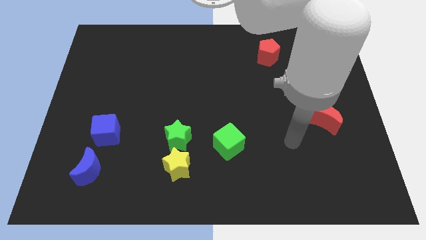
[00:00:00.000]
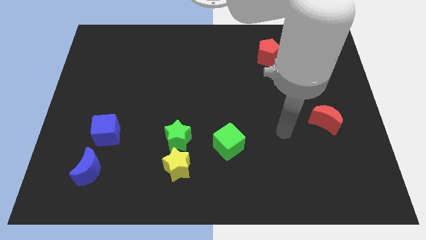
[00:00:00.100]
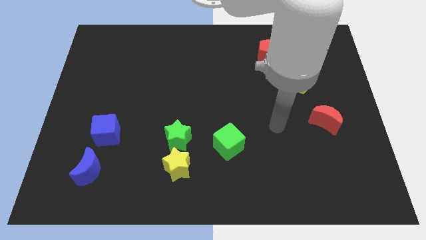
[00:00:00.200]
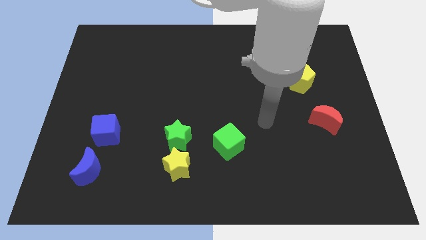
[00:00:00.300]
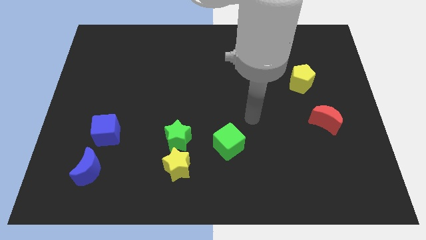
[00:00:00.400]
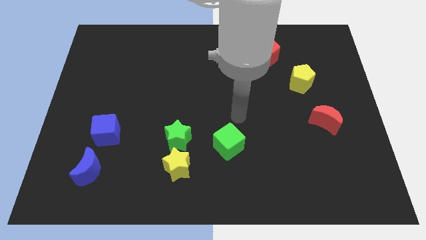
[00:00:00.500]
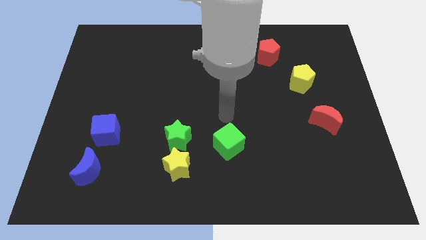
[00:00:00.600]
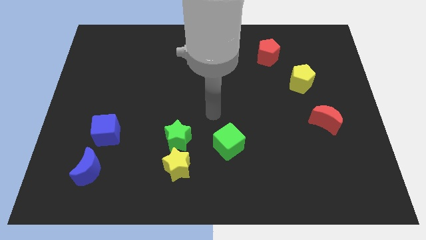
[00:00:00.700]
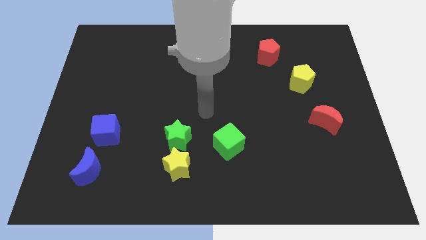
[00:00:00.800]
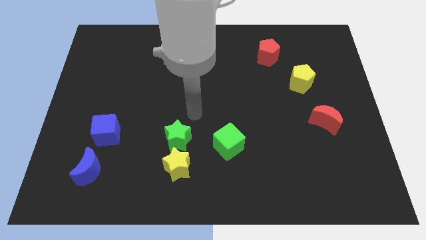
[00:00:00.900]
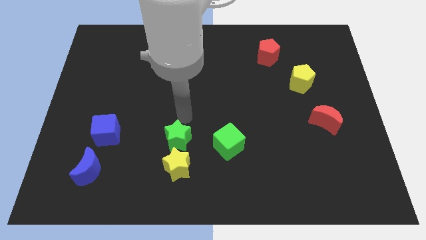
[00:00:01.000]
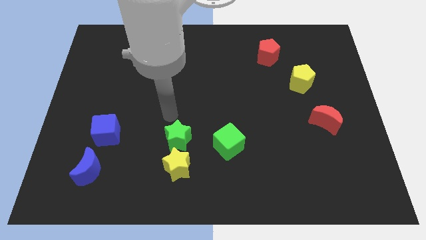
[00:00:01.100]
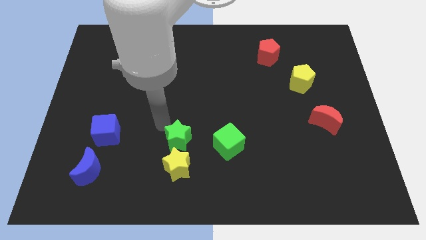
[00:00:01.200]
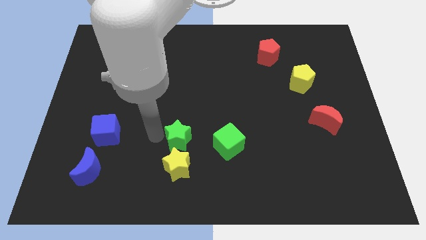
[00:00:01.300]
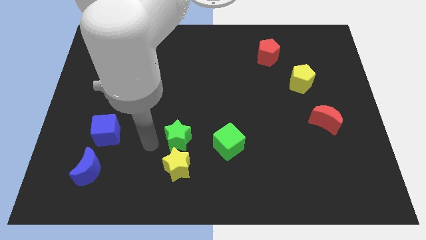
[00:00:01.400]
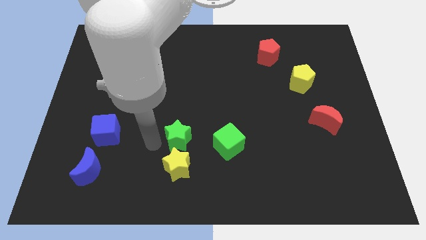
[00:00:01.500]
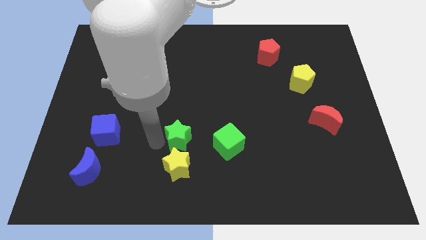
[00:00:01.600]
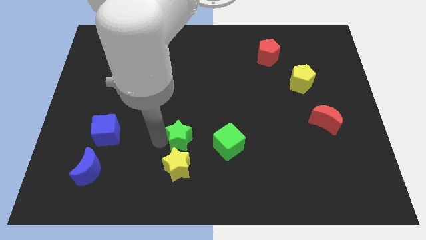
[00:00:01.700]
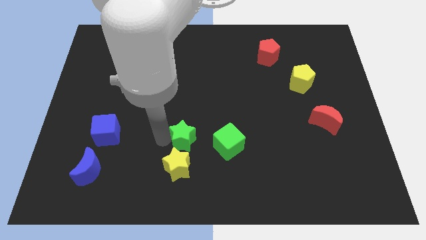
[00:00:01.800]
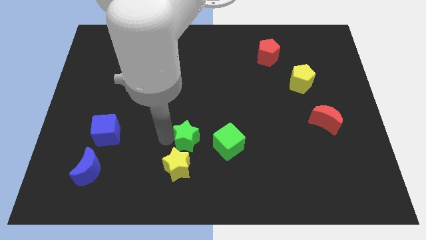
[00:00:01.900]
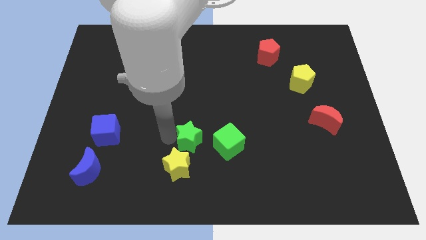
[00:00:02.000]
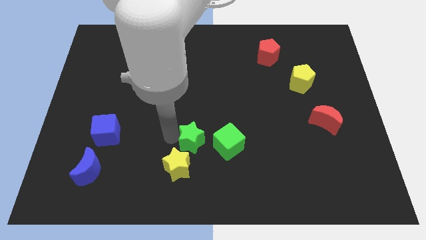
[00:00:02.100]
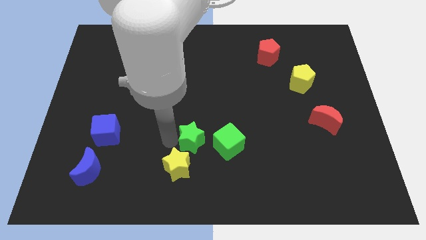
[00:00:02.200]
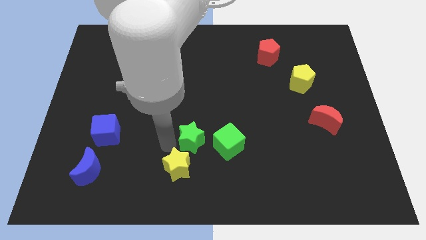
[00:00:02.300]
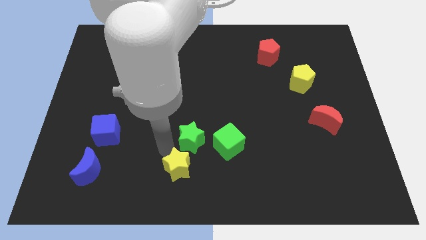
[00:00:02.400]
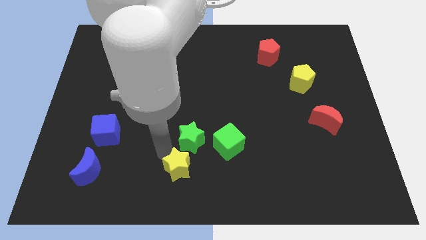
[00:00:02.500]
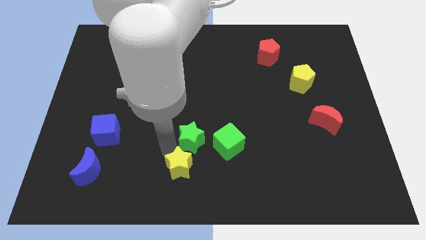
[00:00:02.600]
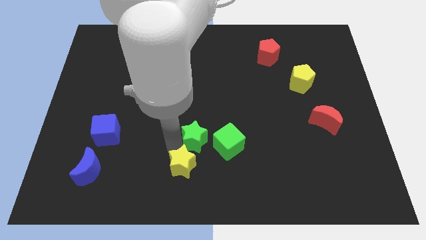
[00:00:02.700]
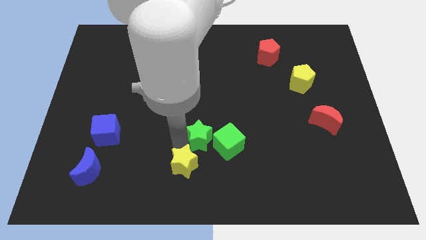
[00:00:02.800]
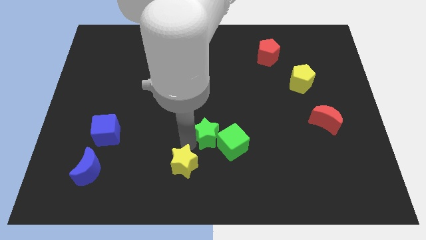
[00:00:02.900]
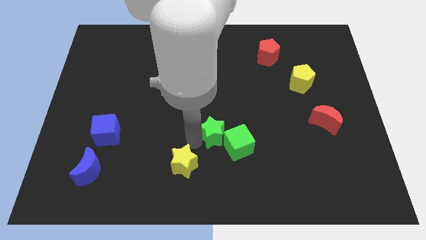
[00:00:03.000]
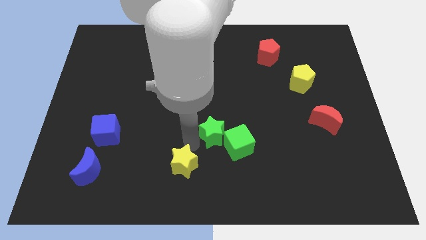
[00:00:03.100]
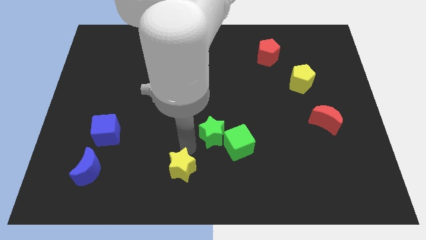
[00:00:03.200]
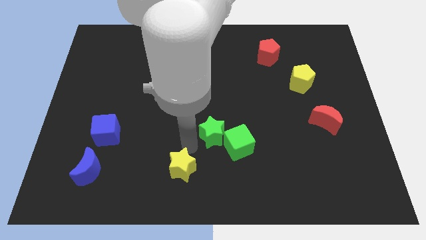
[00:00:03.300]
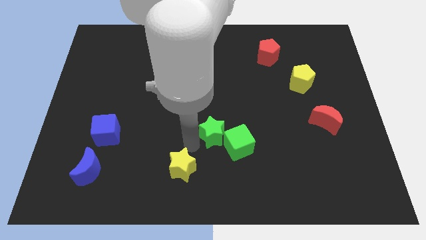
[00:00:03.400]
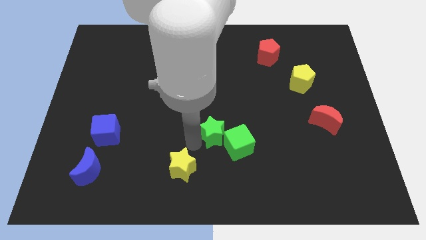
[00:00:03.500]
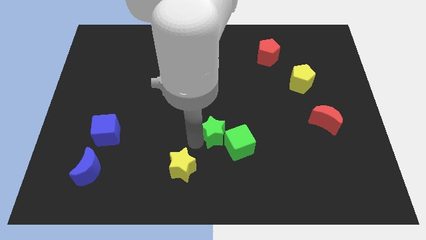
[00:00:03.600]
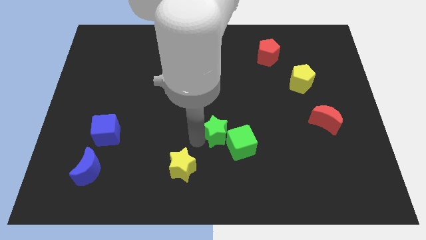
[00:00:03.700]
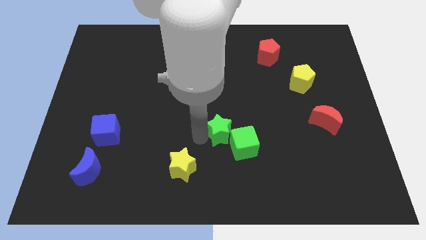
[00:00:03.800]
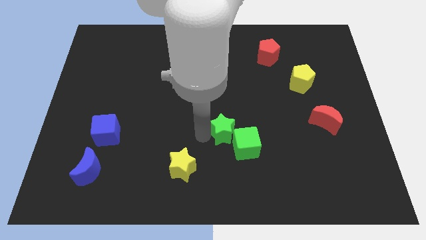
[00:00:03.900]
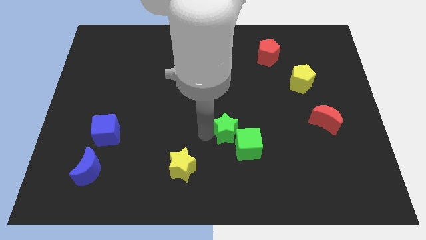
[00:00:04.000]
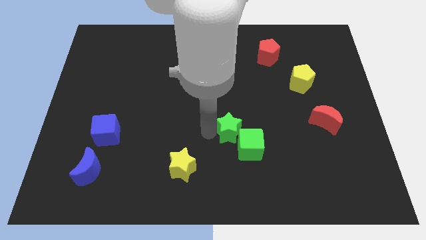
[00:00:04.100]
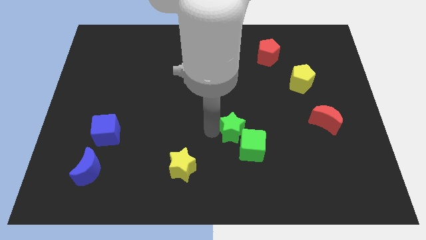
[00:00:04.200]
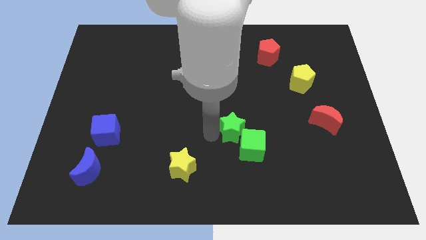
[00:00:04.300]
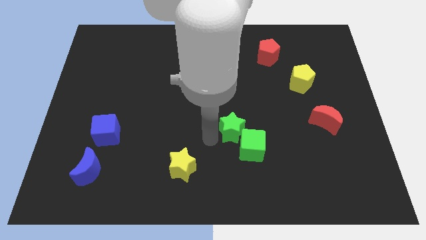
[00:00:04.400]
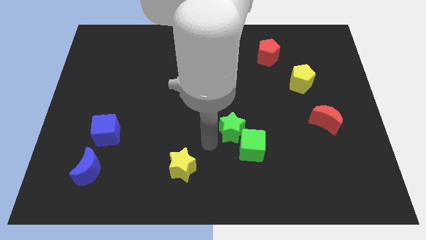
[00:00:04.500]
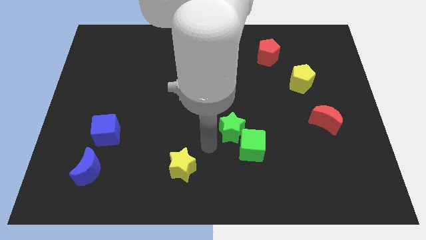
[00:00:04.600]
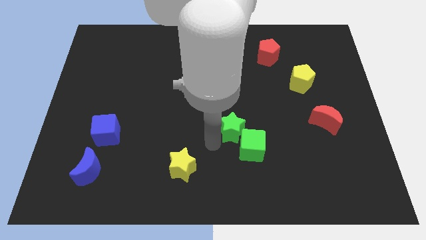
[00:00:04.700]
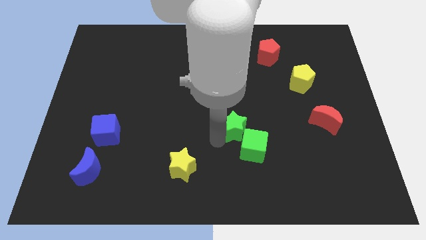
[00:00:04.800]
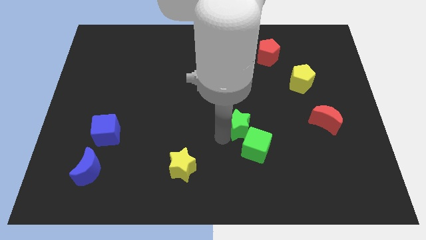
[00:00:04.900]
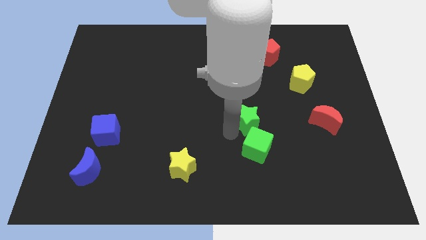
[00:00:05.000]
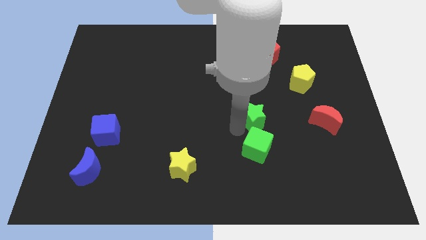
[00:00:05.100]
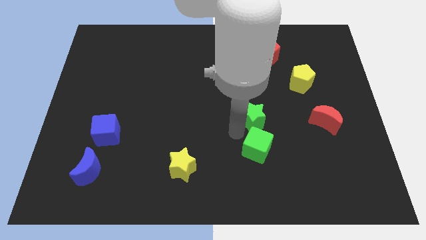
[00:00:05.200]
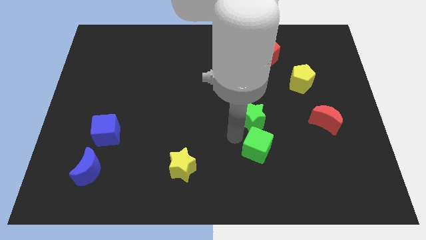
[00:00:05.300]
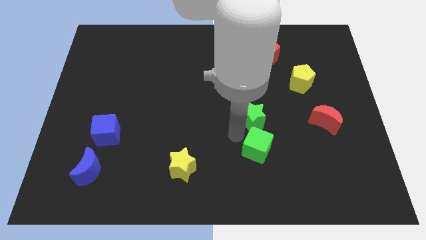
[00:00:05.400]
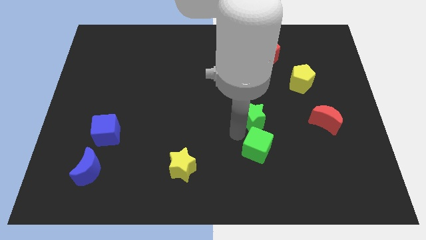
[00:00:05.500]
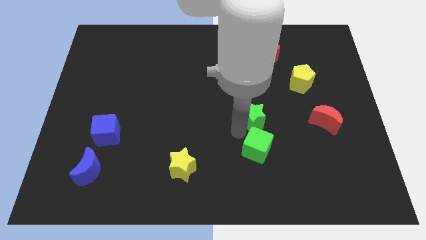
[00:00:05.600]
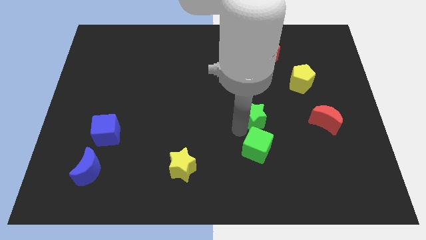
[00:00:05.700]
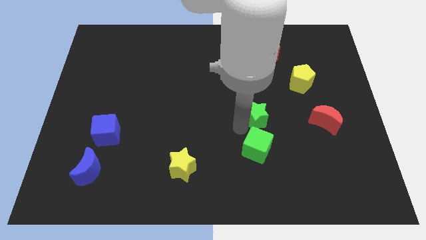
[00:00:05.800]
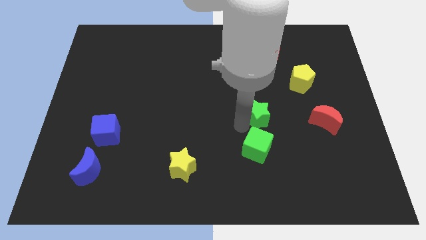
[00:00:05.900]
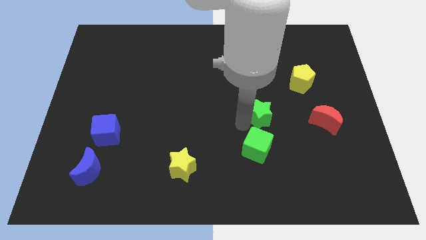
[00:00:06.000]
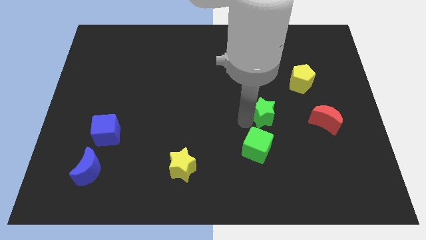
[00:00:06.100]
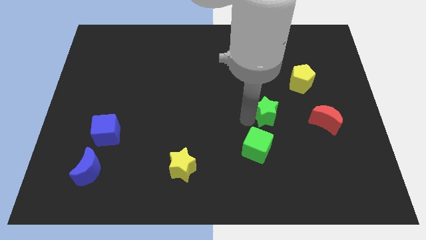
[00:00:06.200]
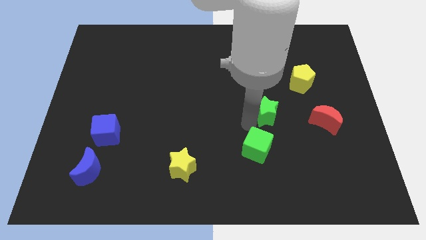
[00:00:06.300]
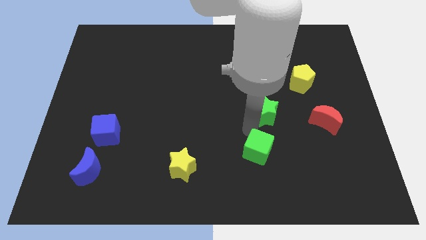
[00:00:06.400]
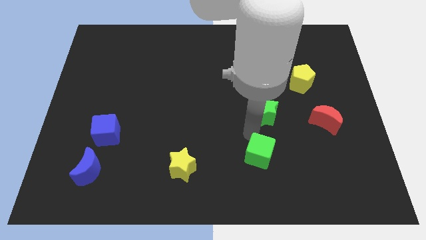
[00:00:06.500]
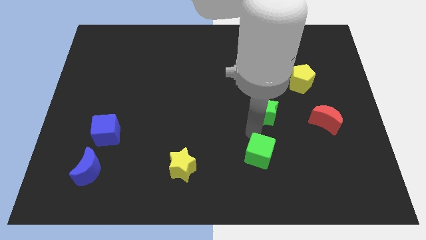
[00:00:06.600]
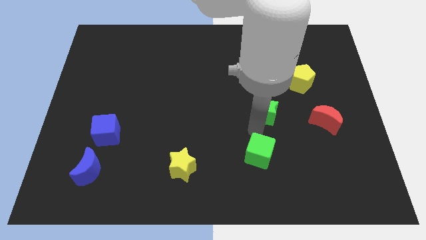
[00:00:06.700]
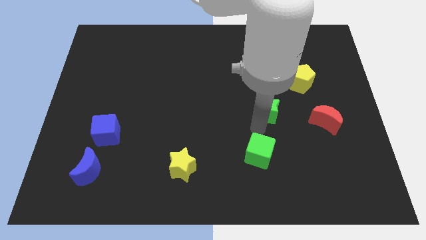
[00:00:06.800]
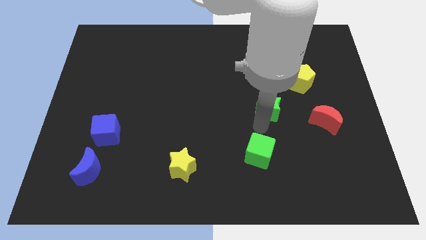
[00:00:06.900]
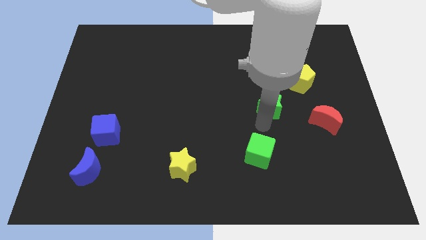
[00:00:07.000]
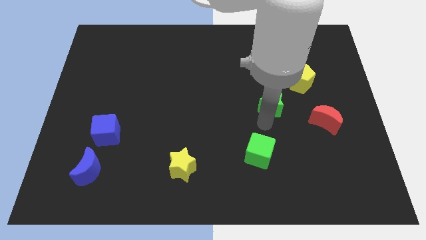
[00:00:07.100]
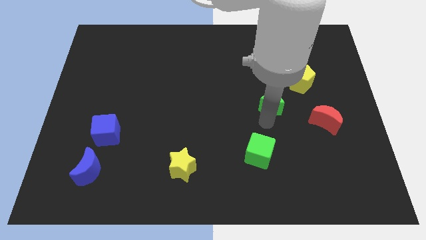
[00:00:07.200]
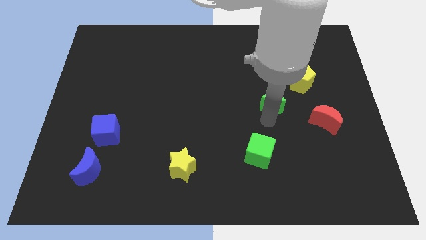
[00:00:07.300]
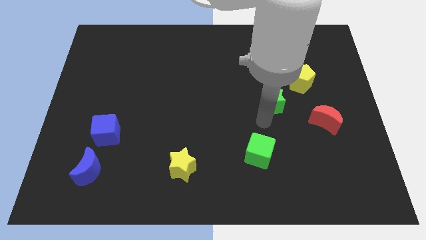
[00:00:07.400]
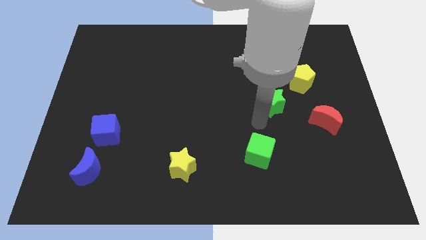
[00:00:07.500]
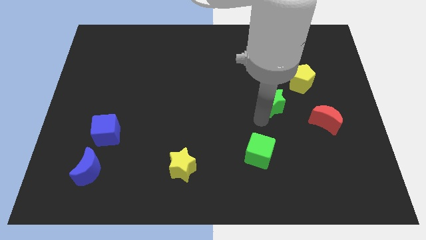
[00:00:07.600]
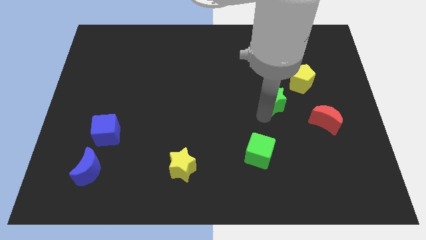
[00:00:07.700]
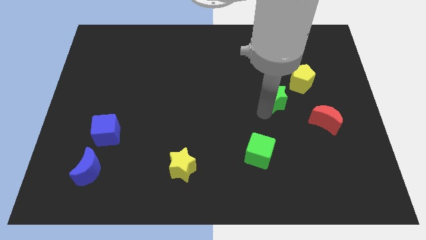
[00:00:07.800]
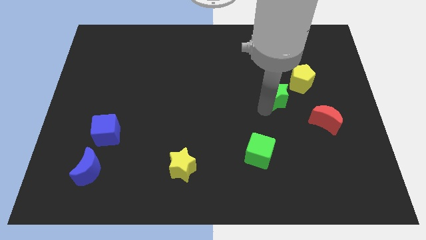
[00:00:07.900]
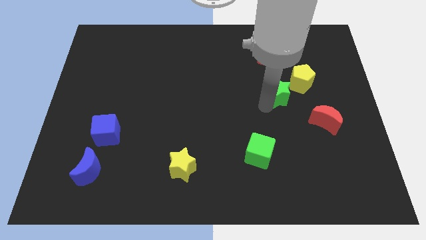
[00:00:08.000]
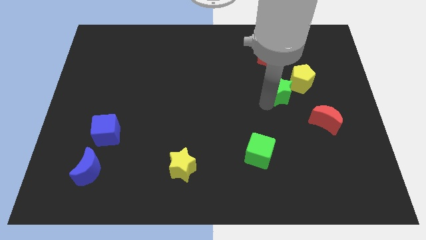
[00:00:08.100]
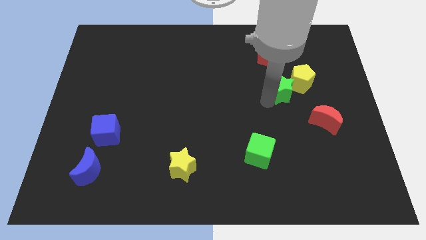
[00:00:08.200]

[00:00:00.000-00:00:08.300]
push the green star to the yellow pentagon
